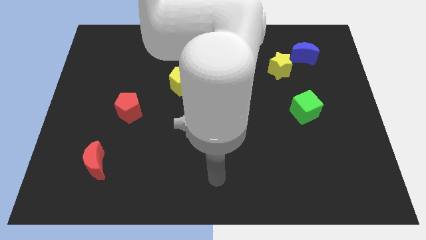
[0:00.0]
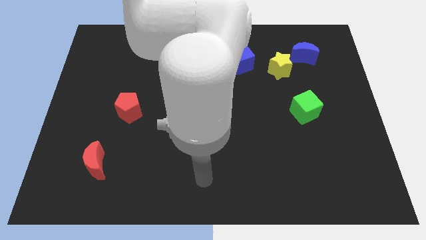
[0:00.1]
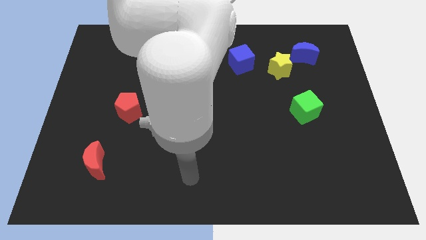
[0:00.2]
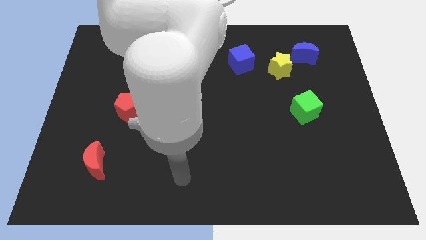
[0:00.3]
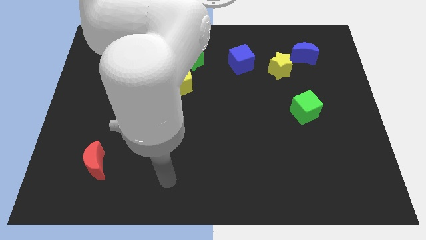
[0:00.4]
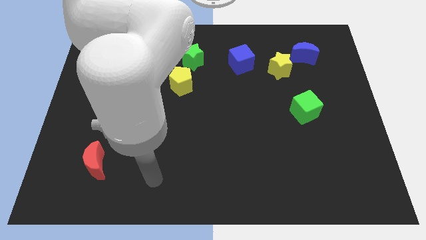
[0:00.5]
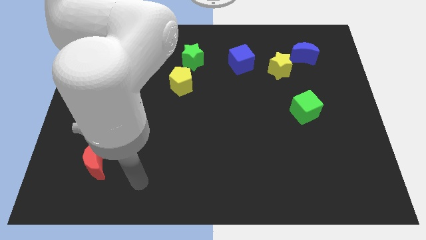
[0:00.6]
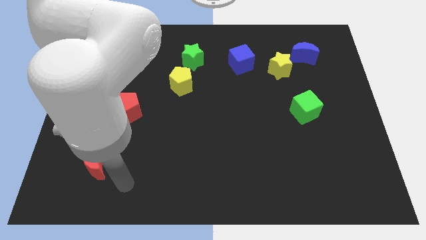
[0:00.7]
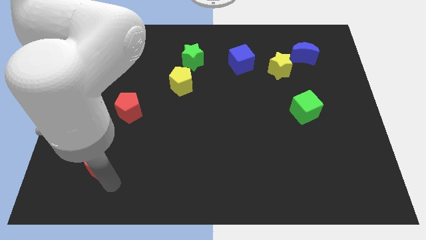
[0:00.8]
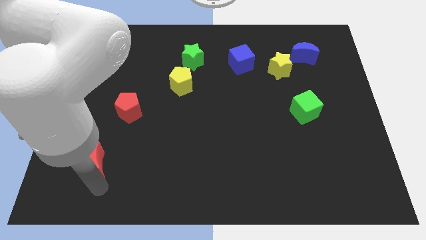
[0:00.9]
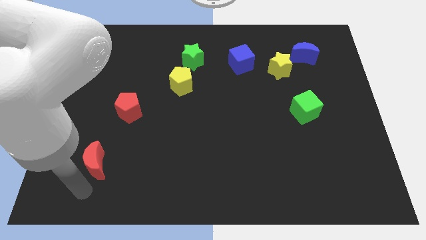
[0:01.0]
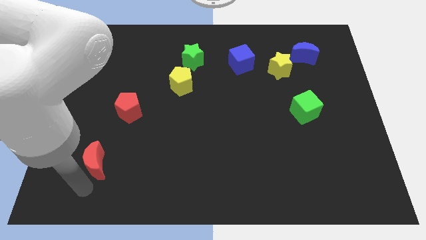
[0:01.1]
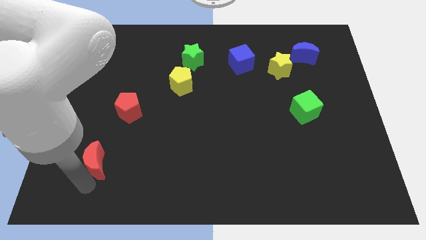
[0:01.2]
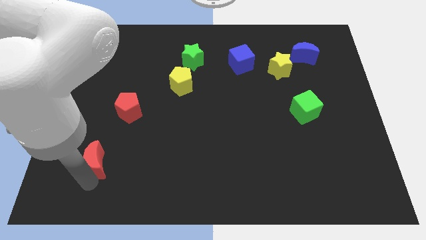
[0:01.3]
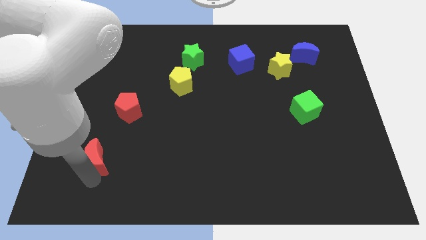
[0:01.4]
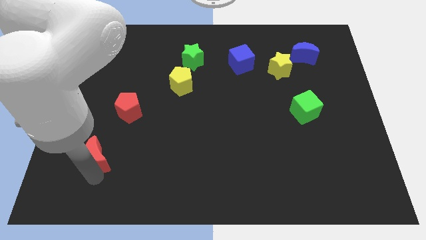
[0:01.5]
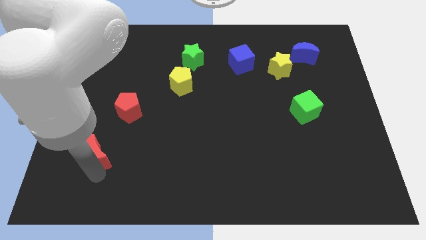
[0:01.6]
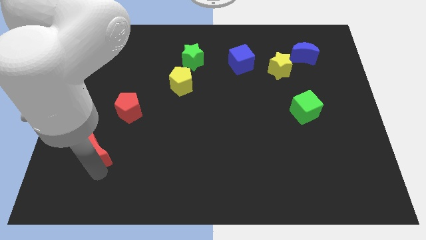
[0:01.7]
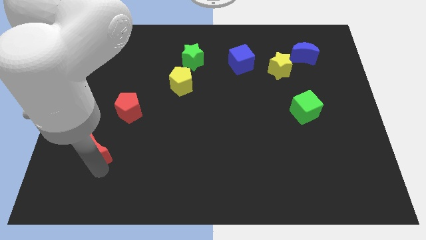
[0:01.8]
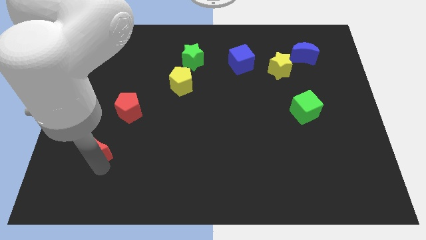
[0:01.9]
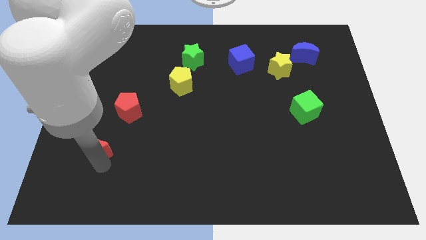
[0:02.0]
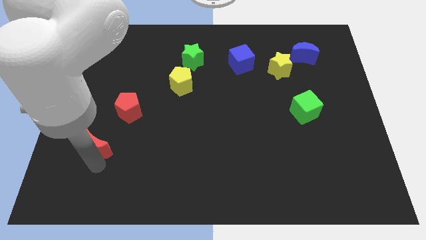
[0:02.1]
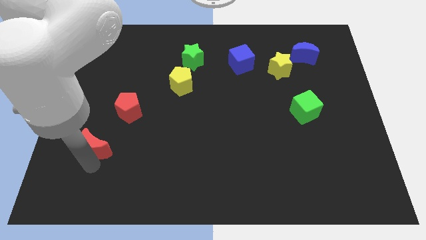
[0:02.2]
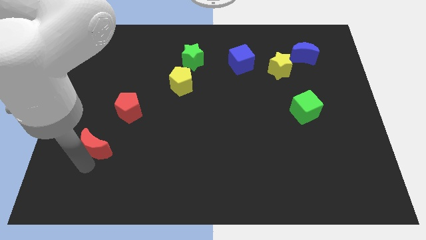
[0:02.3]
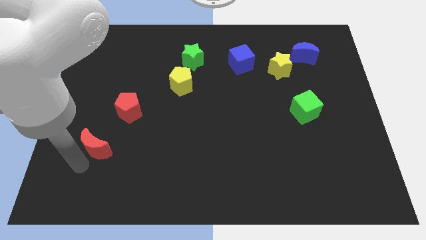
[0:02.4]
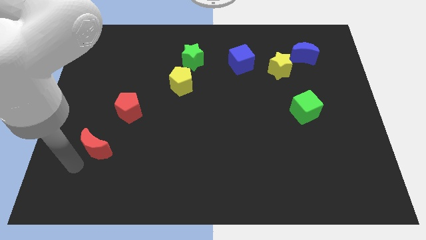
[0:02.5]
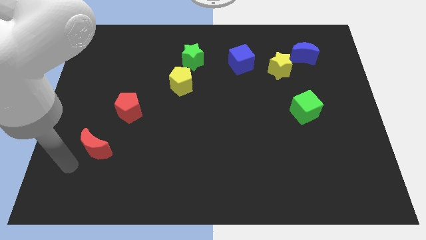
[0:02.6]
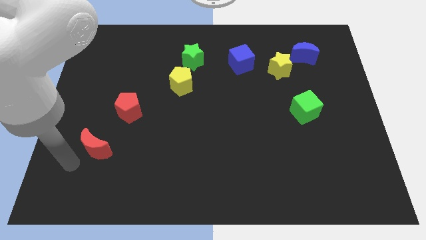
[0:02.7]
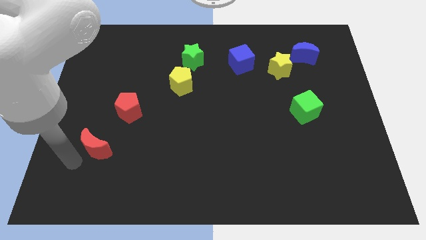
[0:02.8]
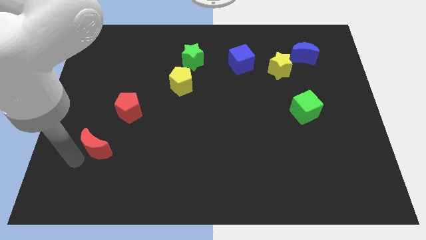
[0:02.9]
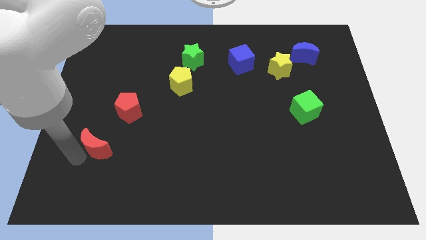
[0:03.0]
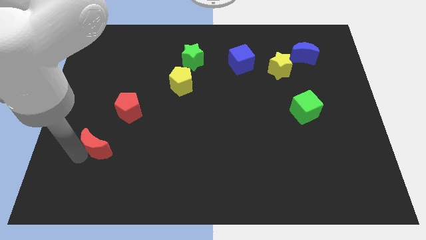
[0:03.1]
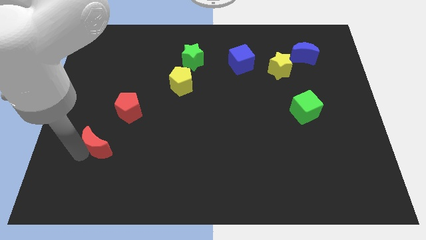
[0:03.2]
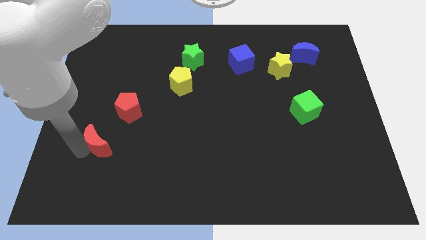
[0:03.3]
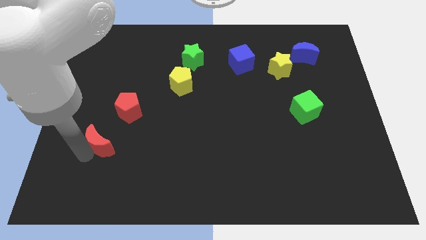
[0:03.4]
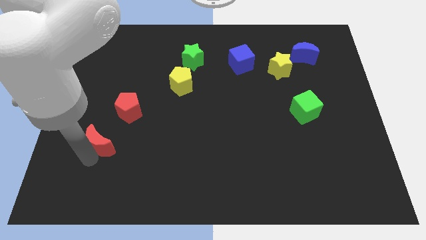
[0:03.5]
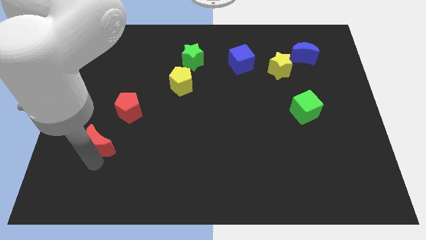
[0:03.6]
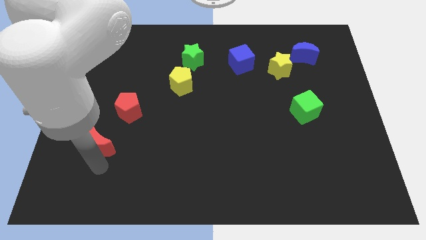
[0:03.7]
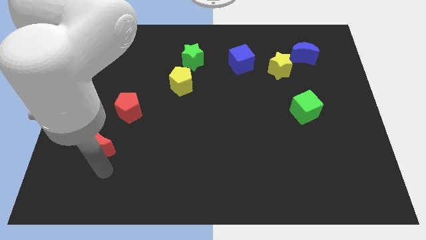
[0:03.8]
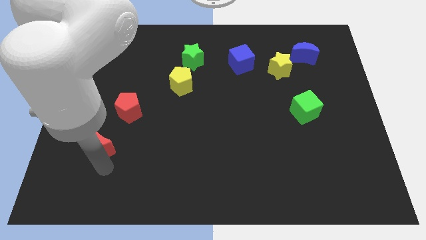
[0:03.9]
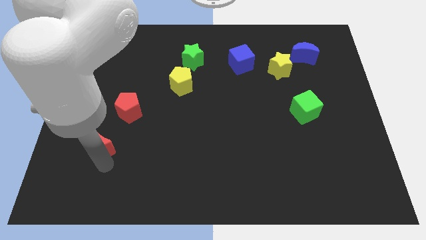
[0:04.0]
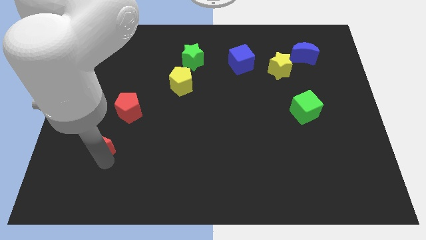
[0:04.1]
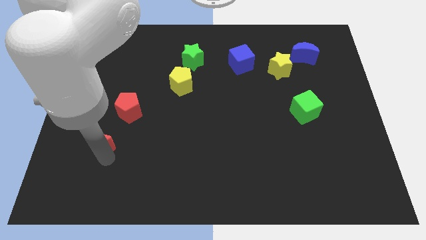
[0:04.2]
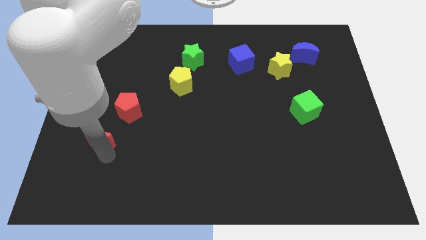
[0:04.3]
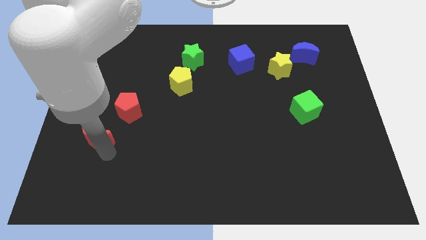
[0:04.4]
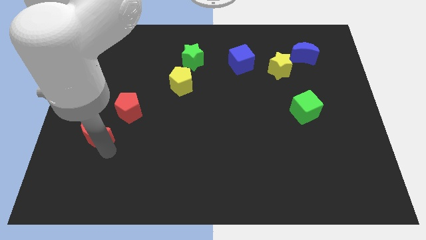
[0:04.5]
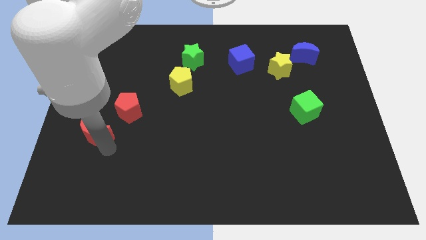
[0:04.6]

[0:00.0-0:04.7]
push the red moon upwards slightly

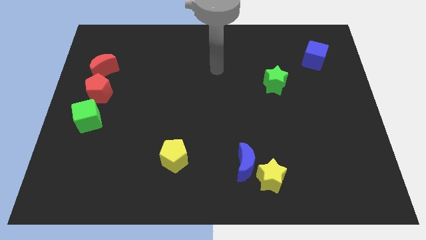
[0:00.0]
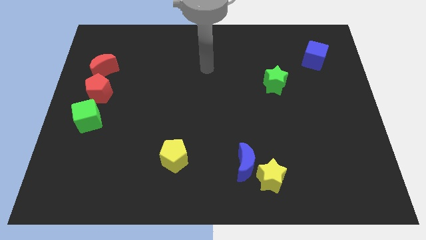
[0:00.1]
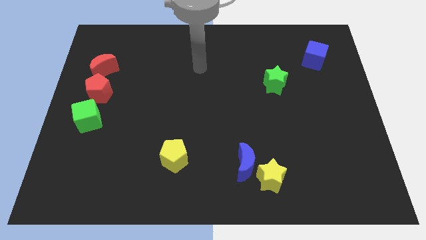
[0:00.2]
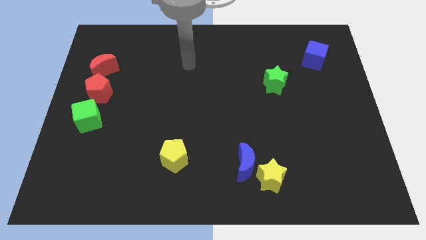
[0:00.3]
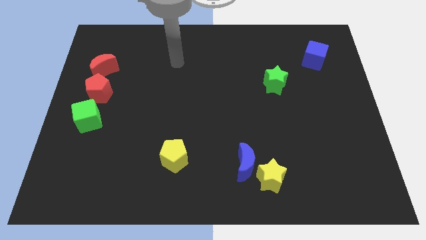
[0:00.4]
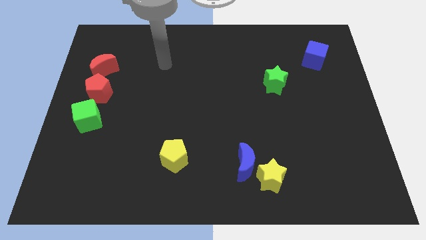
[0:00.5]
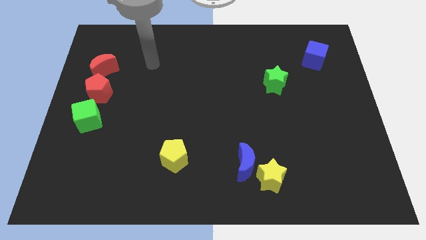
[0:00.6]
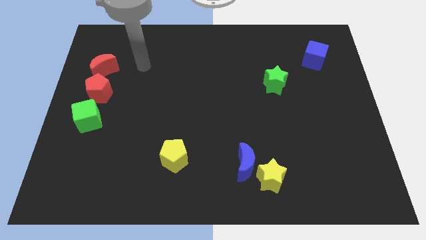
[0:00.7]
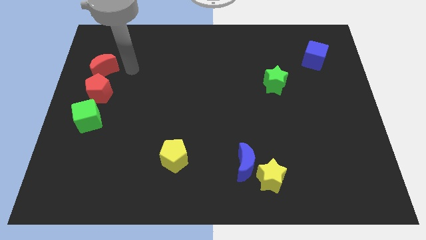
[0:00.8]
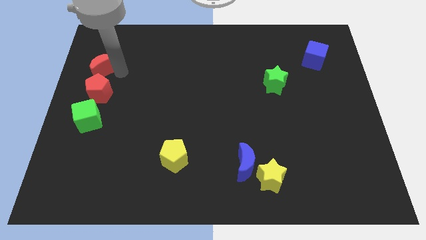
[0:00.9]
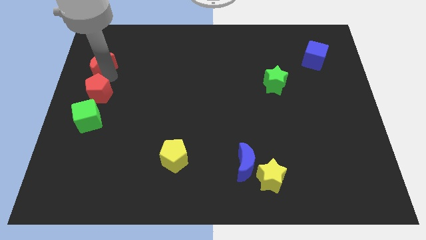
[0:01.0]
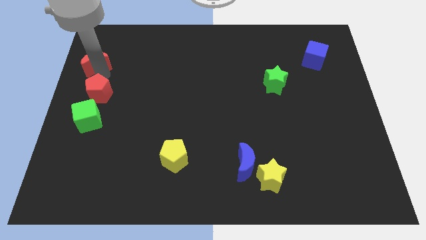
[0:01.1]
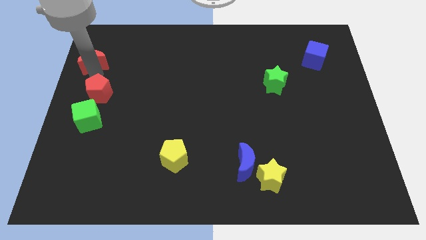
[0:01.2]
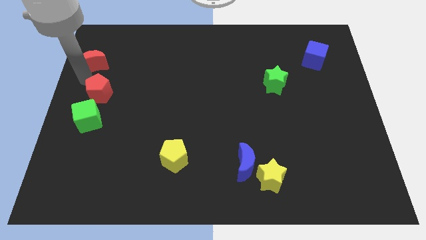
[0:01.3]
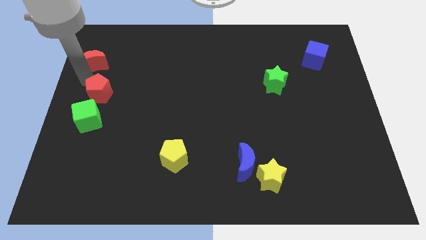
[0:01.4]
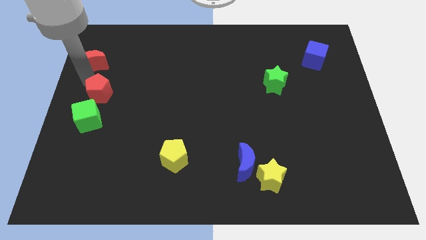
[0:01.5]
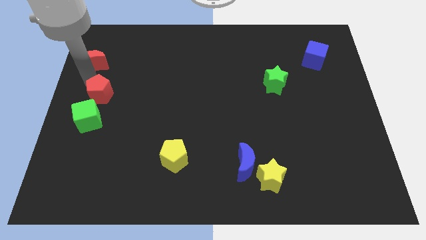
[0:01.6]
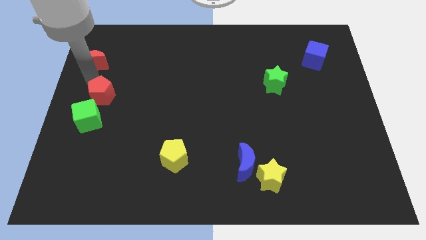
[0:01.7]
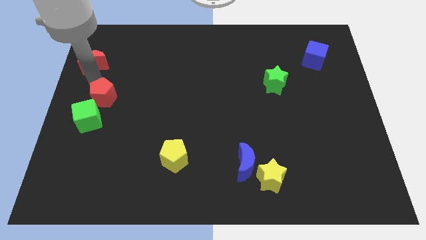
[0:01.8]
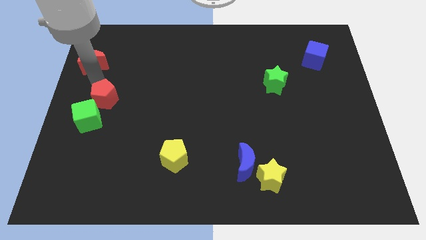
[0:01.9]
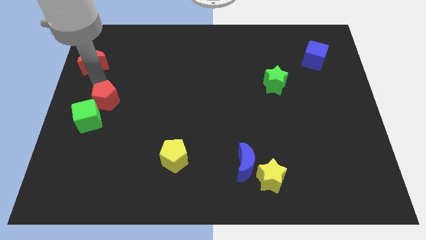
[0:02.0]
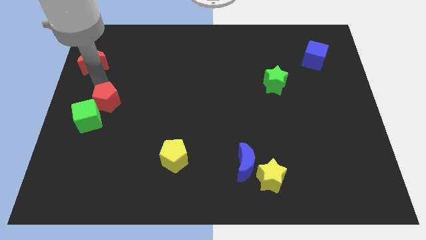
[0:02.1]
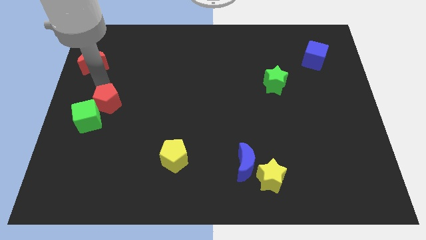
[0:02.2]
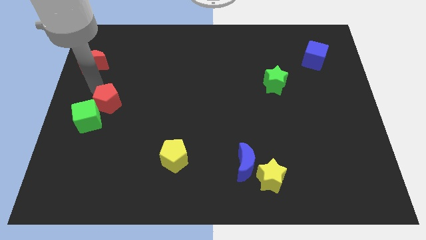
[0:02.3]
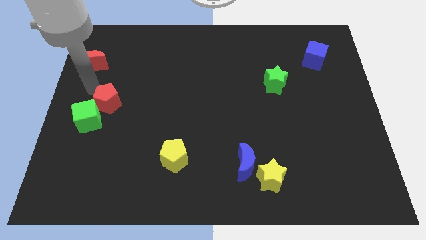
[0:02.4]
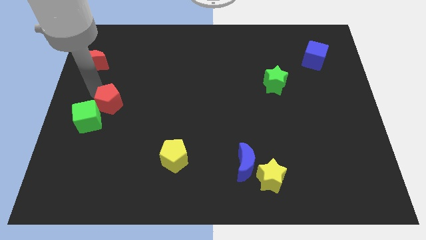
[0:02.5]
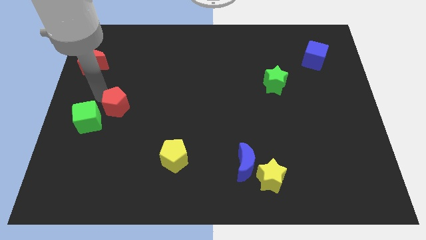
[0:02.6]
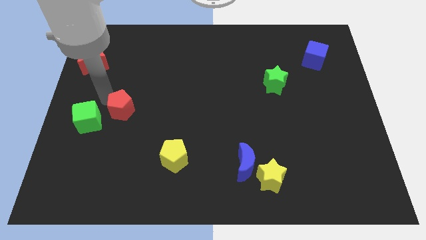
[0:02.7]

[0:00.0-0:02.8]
push the red pentagon a little bit diagonally down and right
